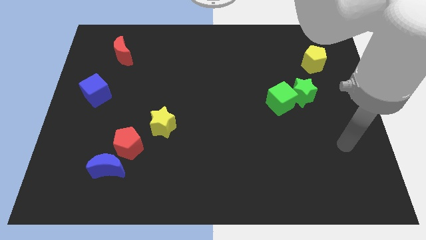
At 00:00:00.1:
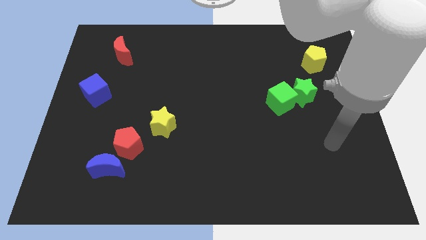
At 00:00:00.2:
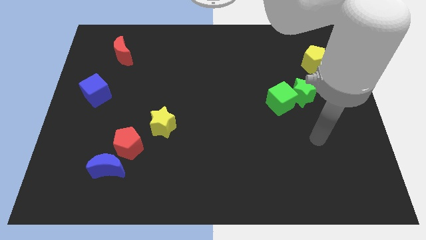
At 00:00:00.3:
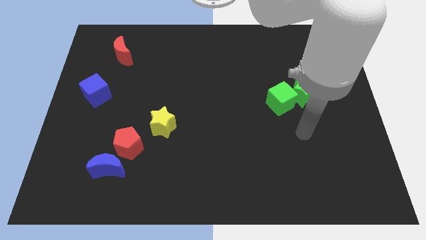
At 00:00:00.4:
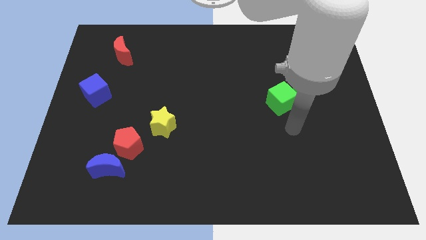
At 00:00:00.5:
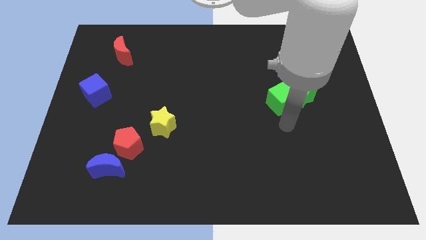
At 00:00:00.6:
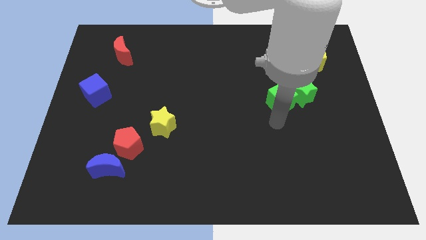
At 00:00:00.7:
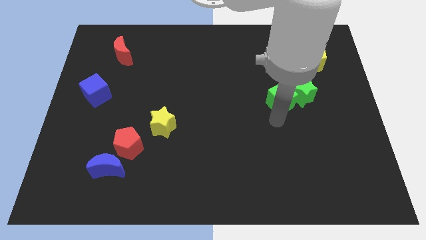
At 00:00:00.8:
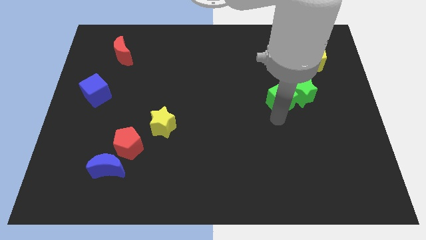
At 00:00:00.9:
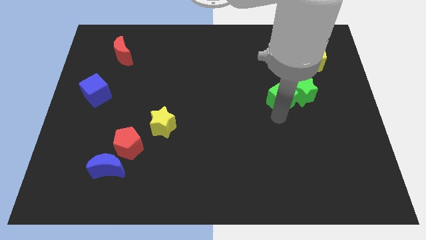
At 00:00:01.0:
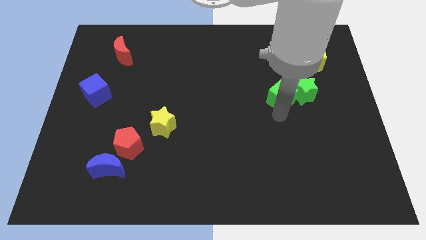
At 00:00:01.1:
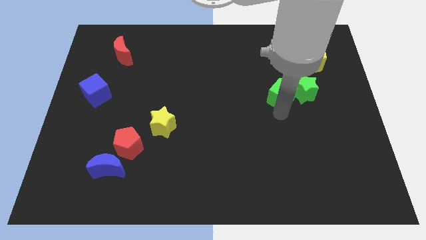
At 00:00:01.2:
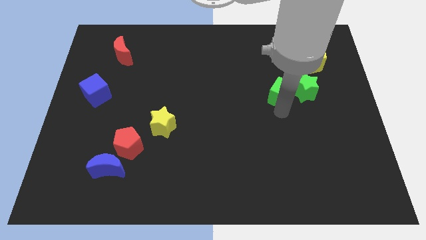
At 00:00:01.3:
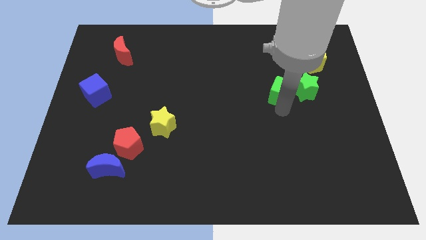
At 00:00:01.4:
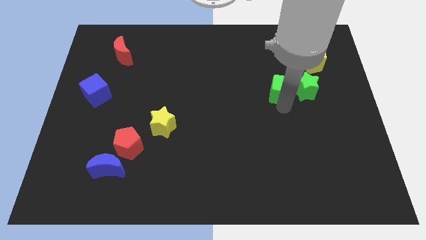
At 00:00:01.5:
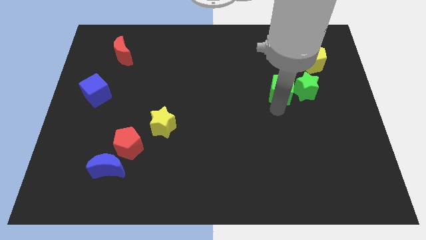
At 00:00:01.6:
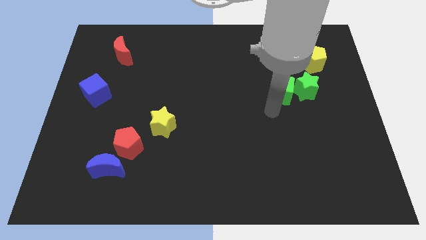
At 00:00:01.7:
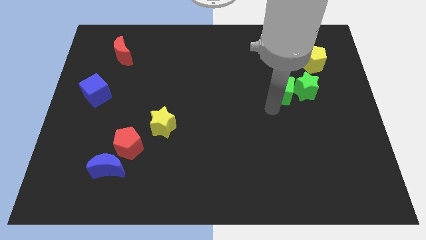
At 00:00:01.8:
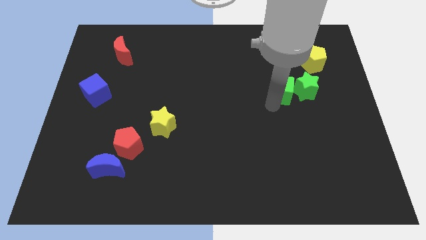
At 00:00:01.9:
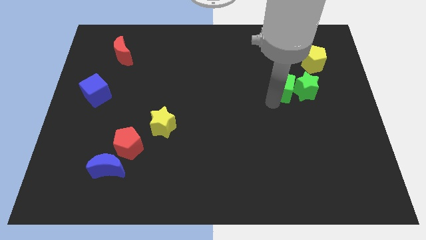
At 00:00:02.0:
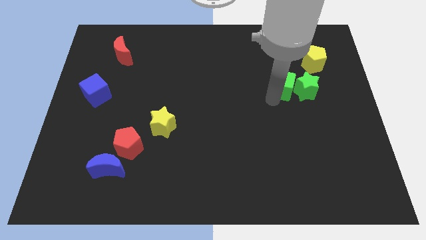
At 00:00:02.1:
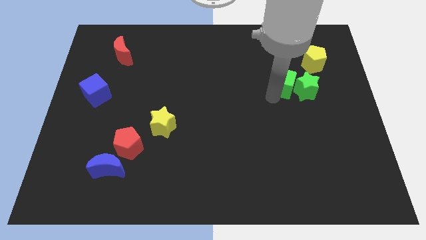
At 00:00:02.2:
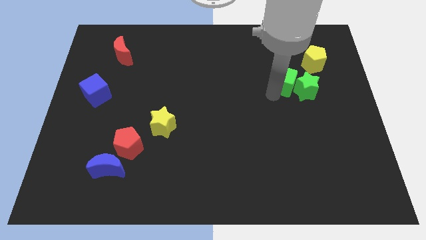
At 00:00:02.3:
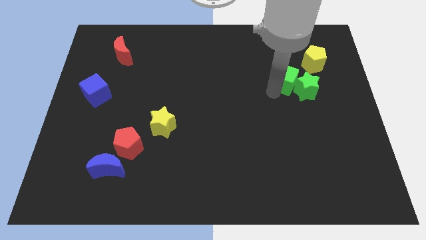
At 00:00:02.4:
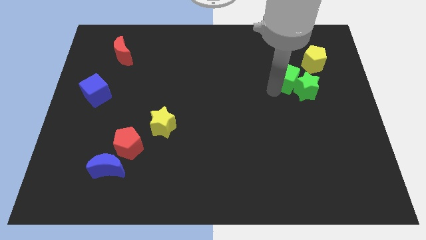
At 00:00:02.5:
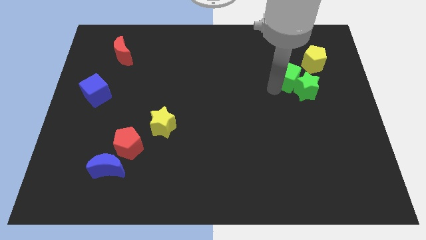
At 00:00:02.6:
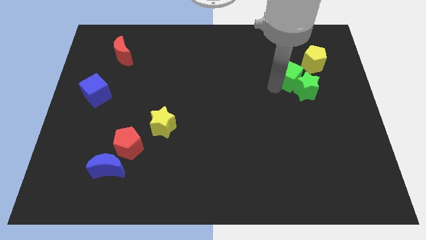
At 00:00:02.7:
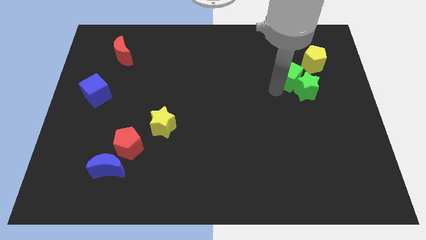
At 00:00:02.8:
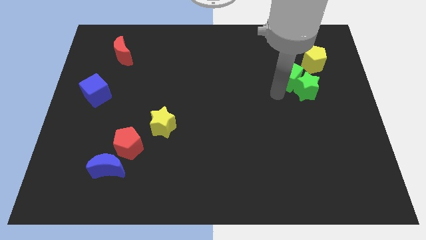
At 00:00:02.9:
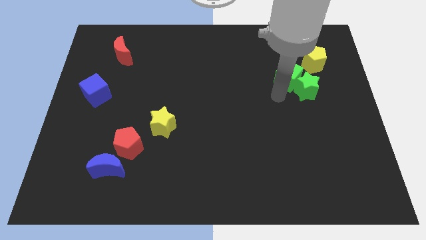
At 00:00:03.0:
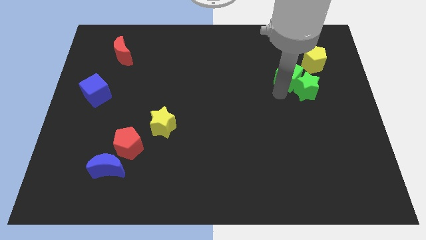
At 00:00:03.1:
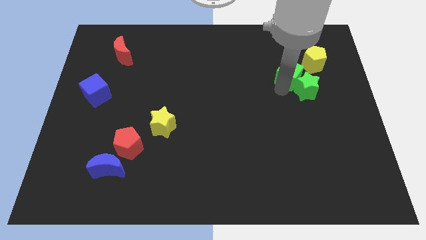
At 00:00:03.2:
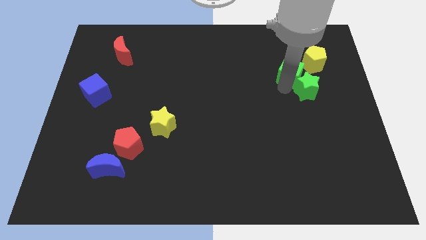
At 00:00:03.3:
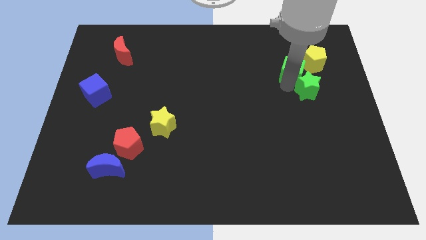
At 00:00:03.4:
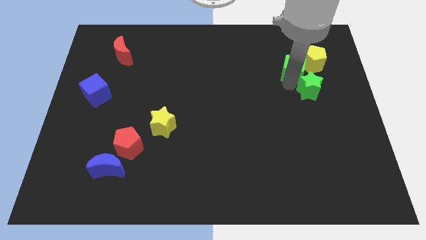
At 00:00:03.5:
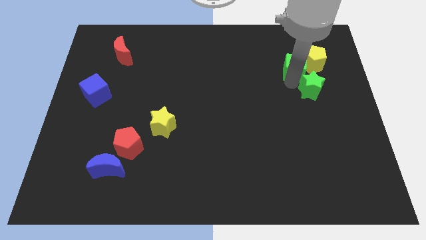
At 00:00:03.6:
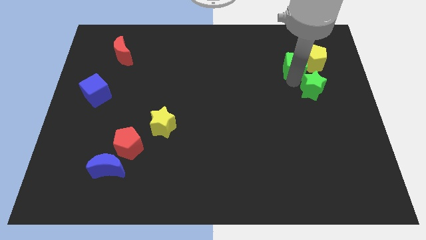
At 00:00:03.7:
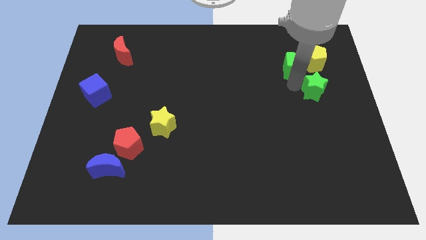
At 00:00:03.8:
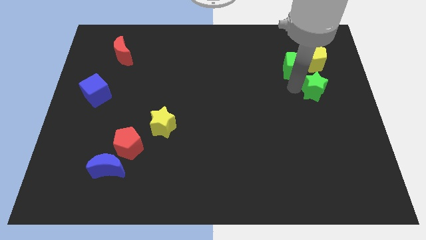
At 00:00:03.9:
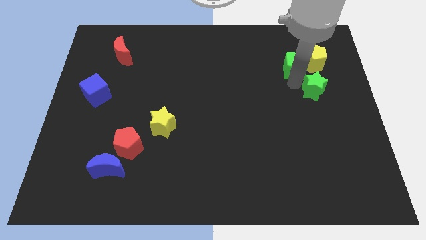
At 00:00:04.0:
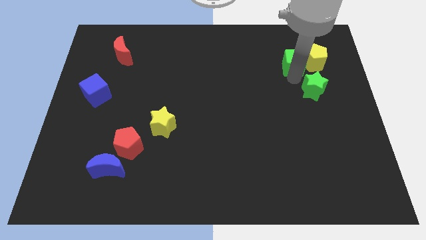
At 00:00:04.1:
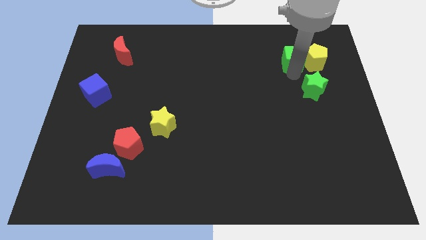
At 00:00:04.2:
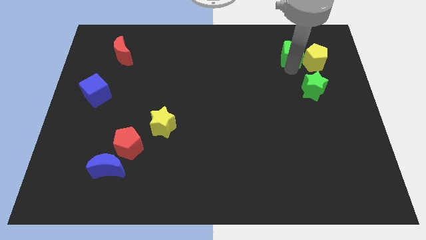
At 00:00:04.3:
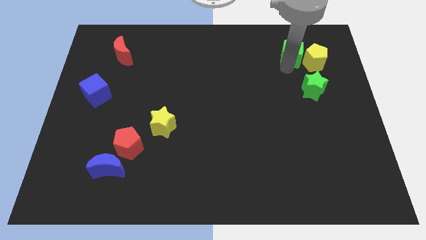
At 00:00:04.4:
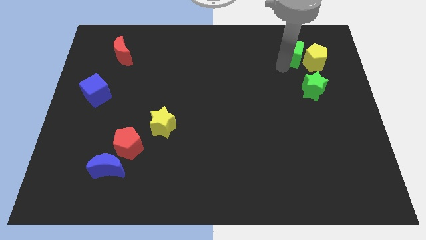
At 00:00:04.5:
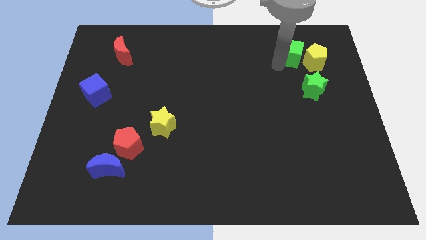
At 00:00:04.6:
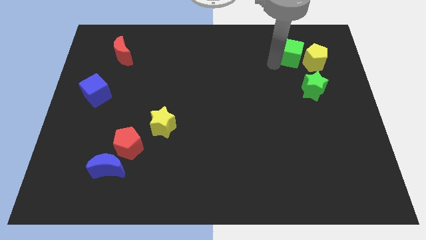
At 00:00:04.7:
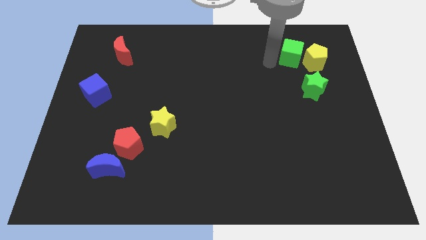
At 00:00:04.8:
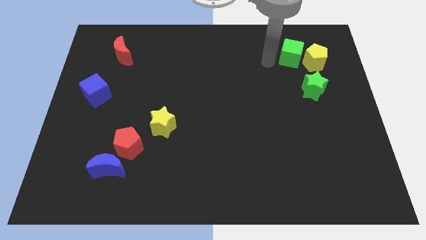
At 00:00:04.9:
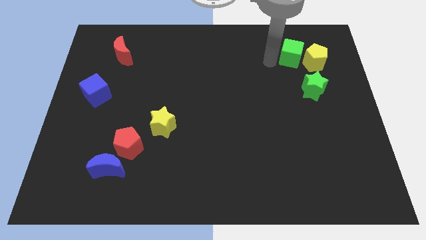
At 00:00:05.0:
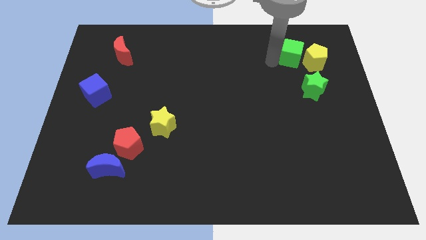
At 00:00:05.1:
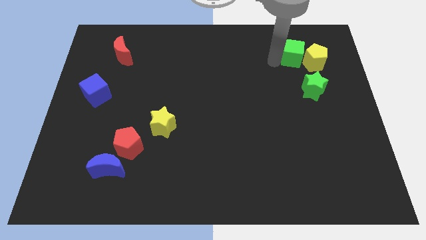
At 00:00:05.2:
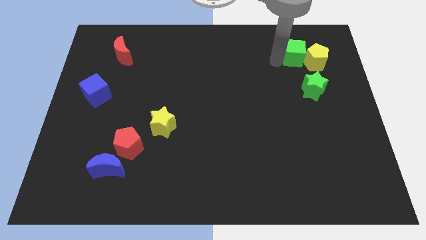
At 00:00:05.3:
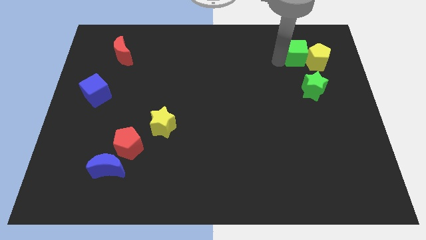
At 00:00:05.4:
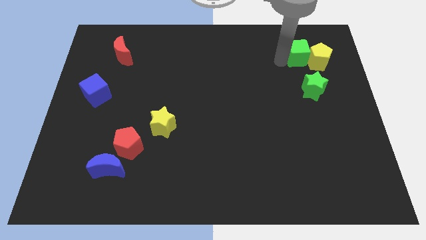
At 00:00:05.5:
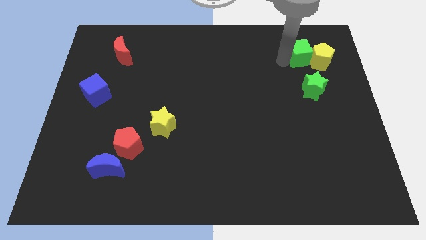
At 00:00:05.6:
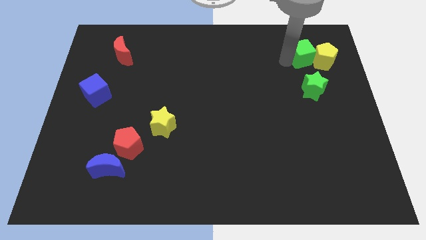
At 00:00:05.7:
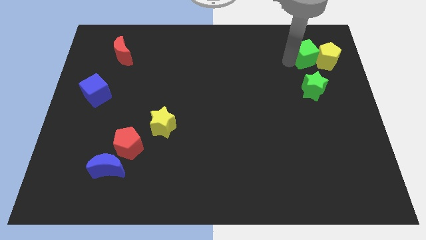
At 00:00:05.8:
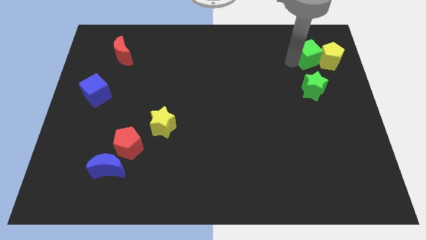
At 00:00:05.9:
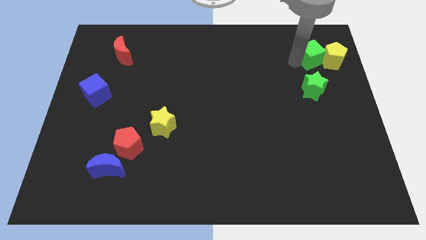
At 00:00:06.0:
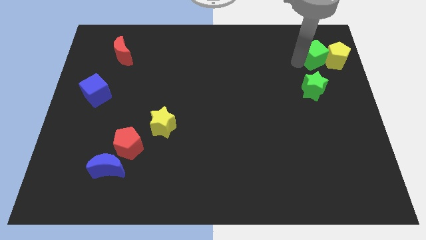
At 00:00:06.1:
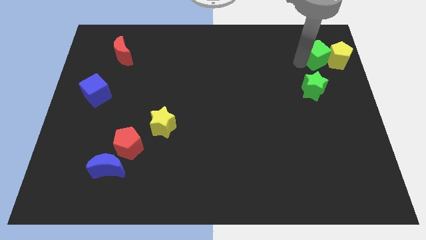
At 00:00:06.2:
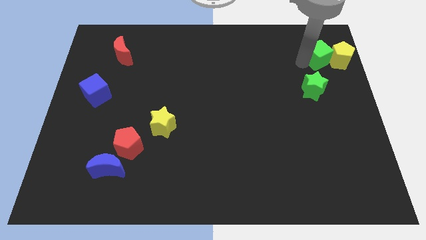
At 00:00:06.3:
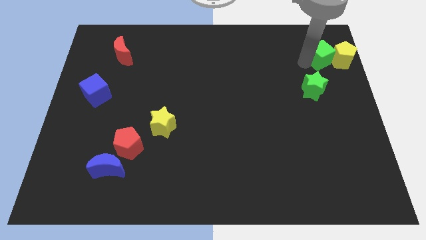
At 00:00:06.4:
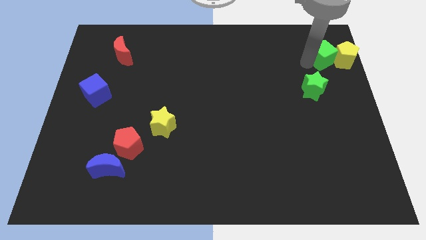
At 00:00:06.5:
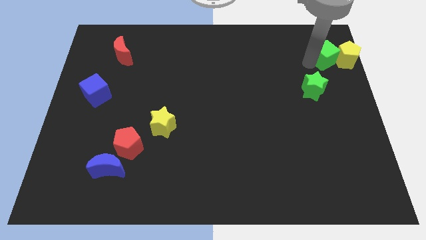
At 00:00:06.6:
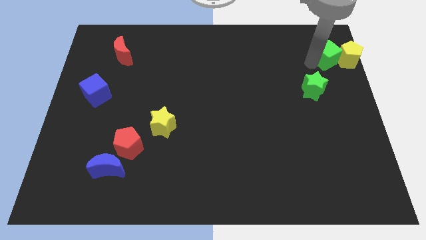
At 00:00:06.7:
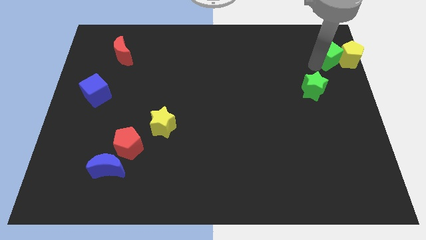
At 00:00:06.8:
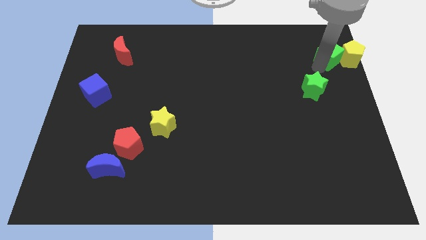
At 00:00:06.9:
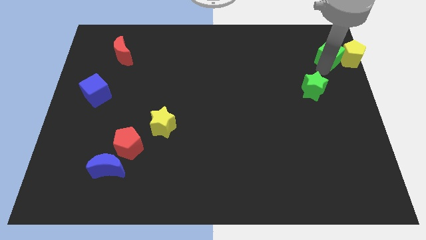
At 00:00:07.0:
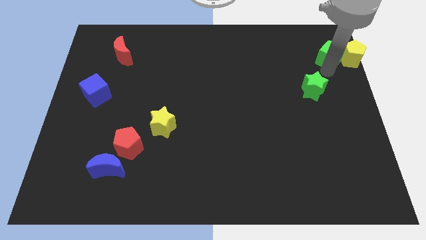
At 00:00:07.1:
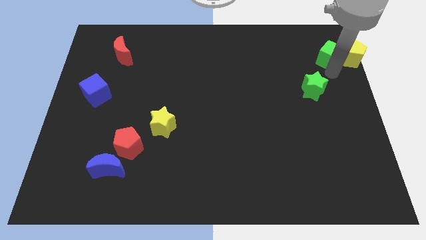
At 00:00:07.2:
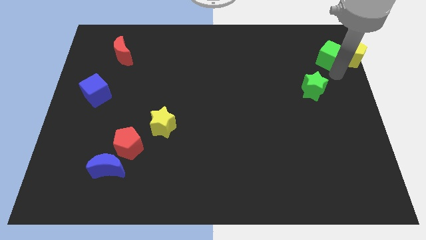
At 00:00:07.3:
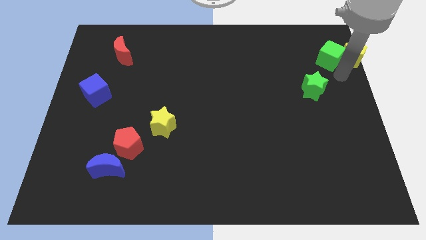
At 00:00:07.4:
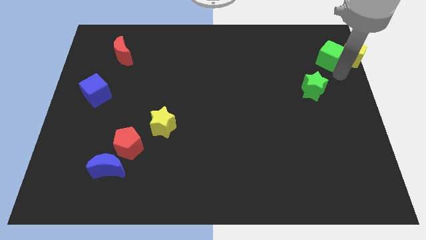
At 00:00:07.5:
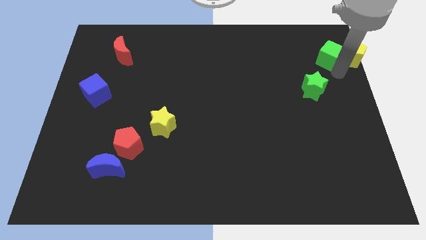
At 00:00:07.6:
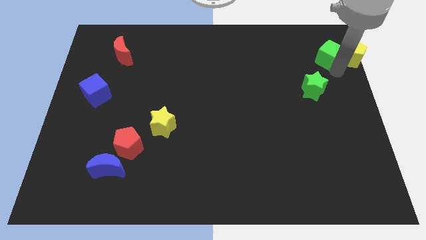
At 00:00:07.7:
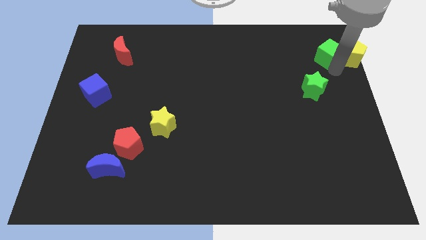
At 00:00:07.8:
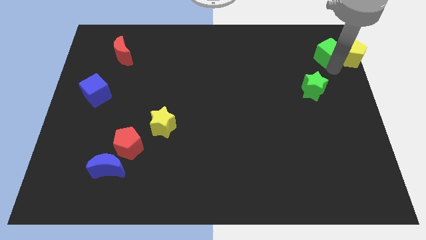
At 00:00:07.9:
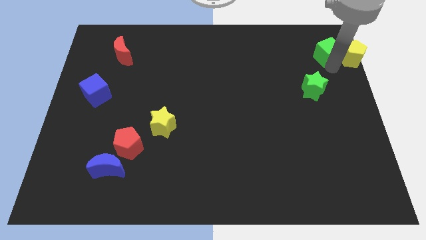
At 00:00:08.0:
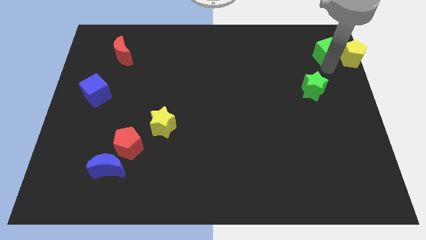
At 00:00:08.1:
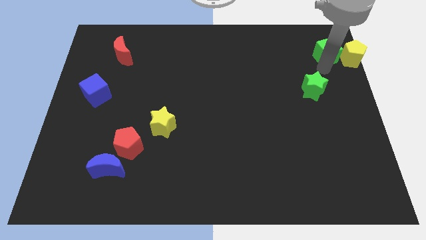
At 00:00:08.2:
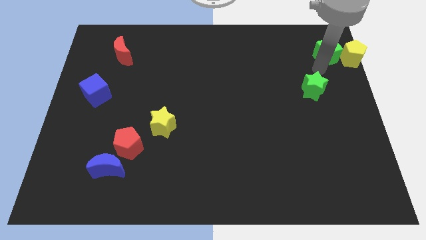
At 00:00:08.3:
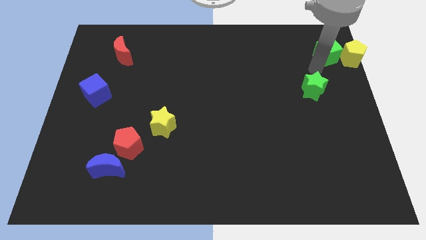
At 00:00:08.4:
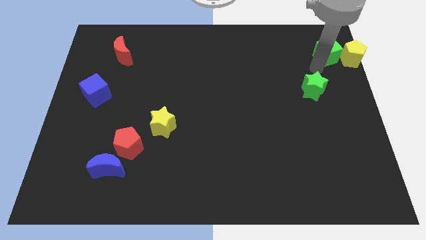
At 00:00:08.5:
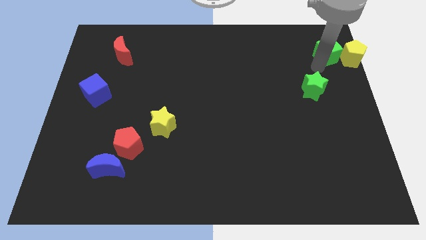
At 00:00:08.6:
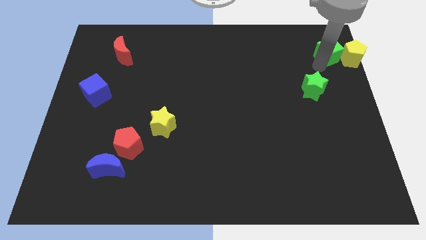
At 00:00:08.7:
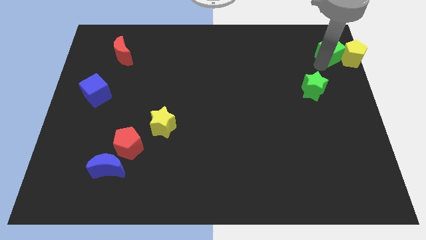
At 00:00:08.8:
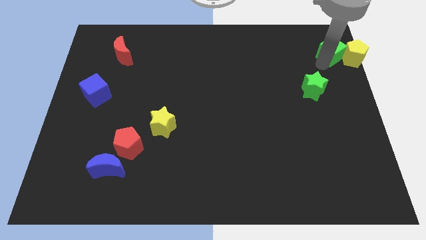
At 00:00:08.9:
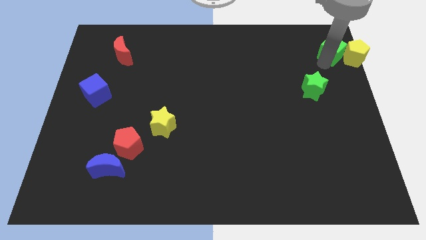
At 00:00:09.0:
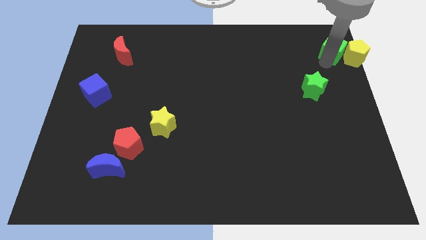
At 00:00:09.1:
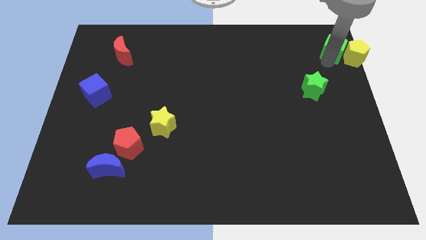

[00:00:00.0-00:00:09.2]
move the green cube to the upper right corner
